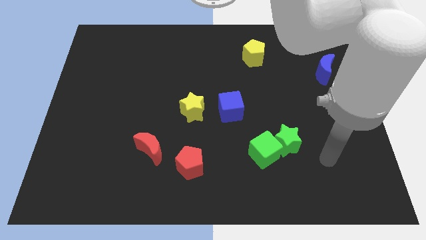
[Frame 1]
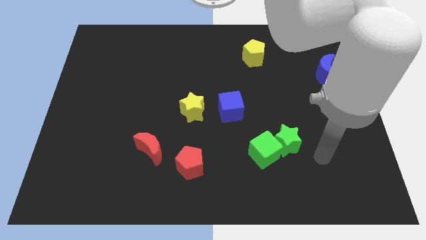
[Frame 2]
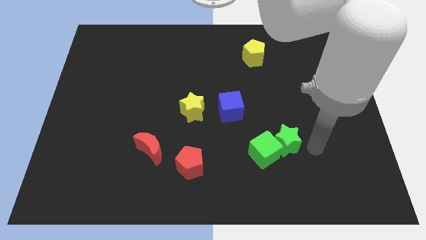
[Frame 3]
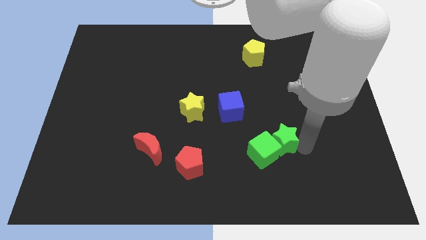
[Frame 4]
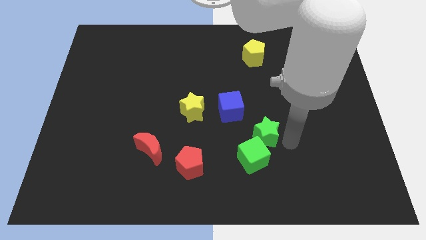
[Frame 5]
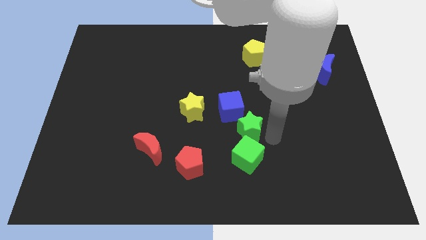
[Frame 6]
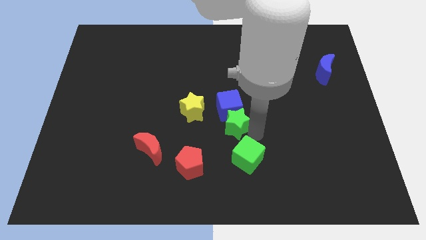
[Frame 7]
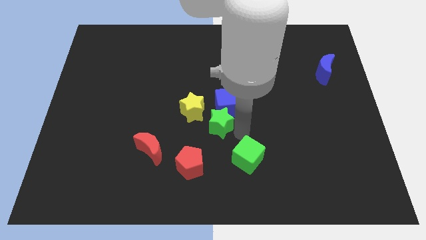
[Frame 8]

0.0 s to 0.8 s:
pull the green cube apart from the green star

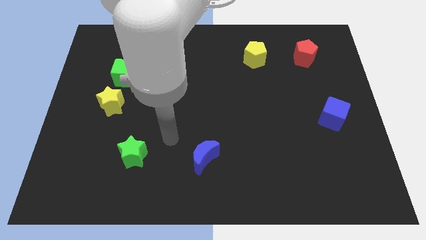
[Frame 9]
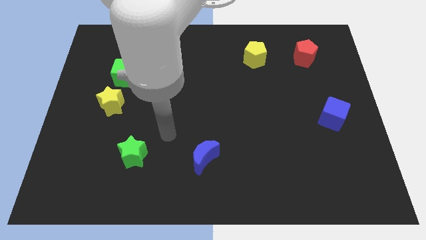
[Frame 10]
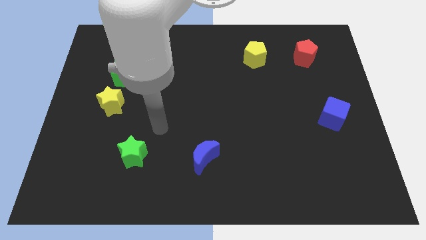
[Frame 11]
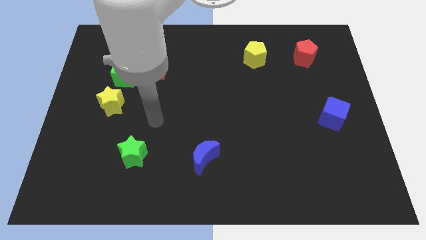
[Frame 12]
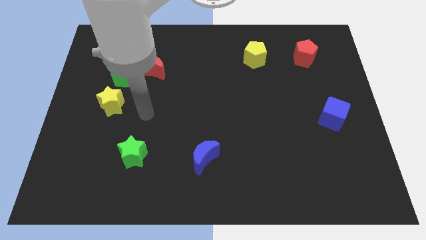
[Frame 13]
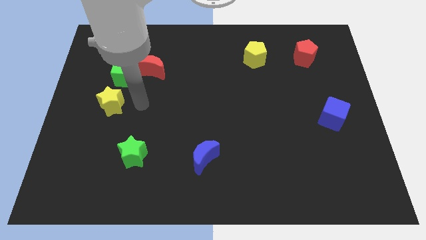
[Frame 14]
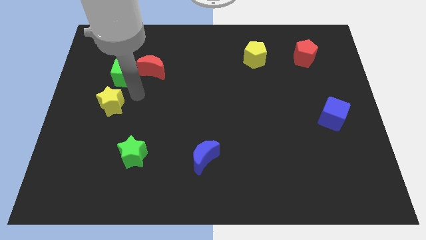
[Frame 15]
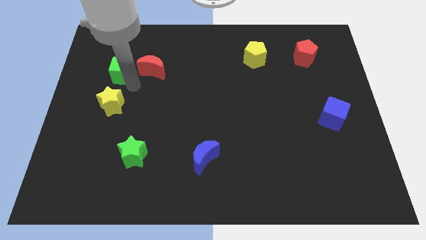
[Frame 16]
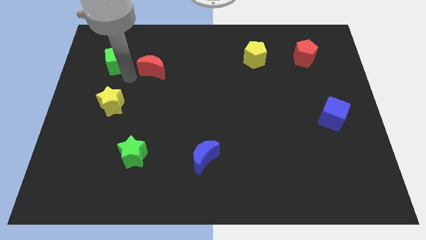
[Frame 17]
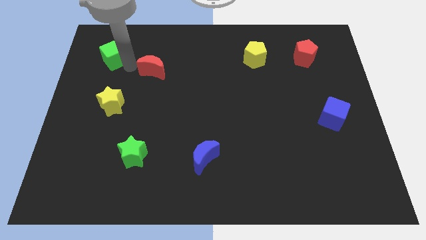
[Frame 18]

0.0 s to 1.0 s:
move the red moon away from the green cube

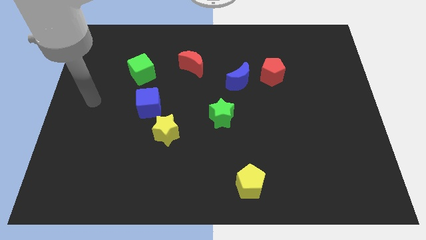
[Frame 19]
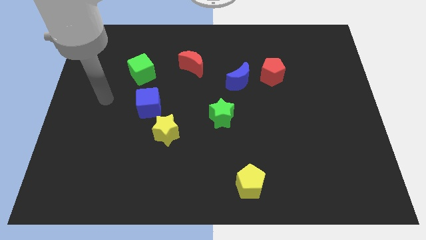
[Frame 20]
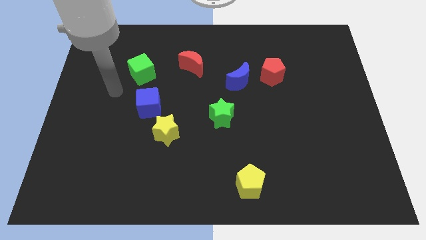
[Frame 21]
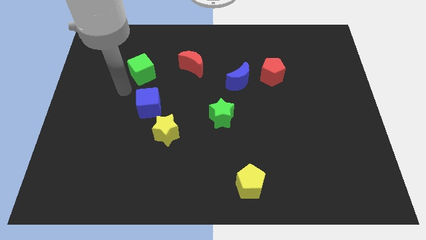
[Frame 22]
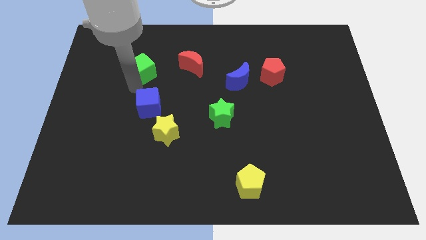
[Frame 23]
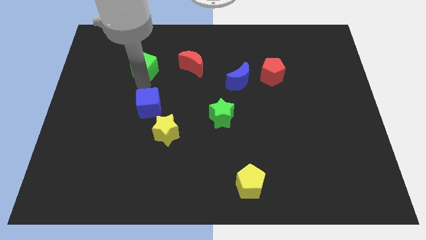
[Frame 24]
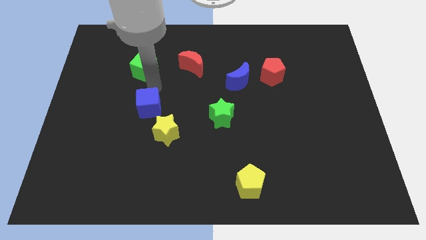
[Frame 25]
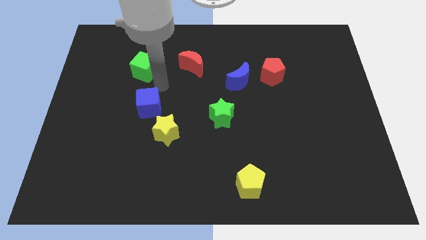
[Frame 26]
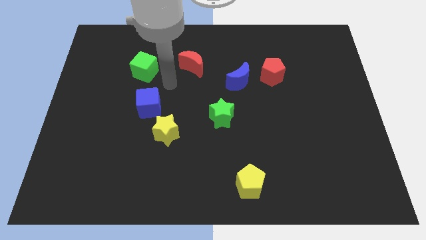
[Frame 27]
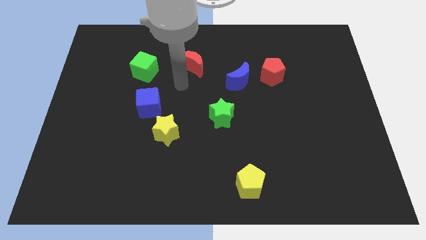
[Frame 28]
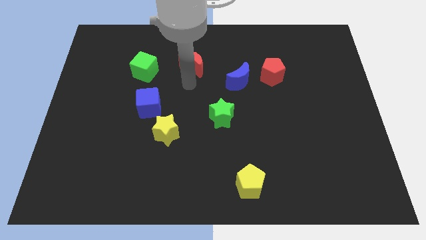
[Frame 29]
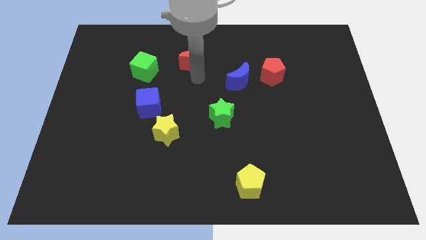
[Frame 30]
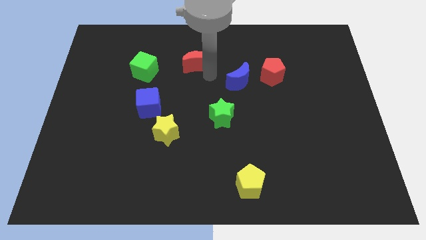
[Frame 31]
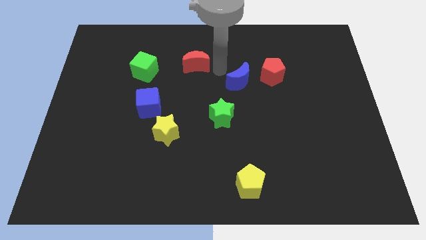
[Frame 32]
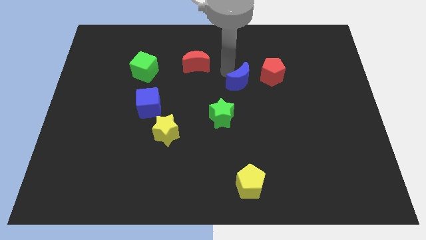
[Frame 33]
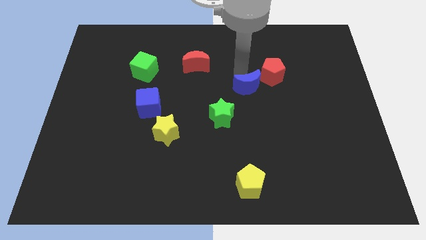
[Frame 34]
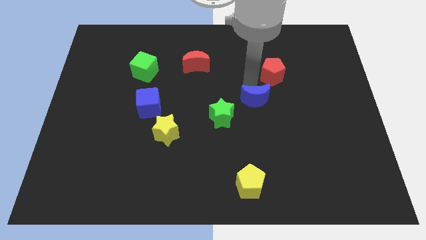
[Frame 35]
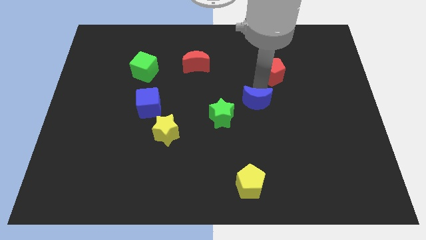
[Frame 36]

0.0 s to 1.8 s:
move the red pentagon away from the blue moon

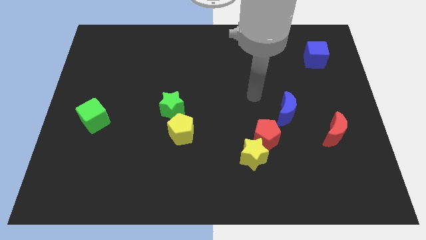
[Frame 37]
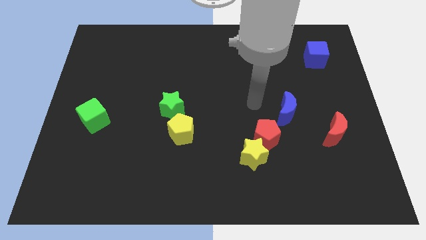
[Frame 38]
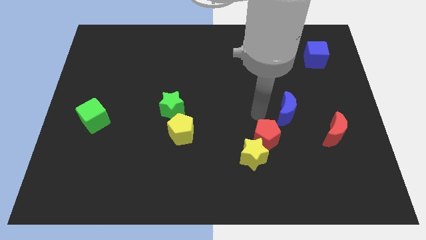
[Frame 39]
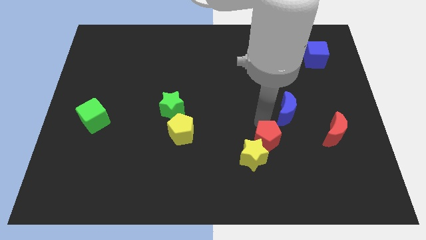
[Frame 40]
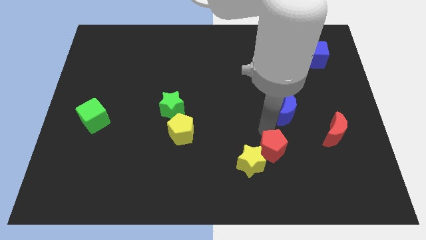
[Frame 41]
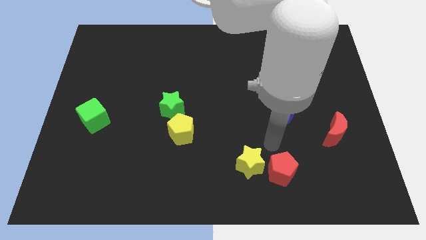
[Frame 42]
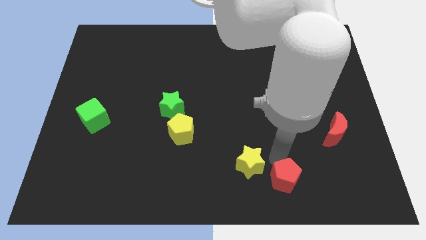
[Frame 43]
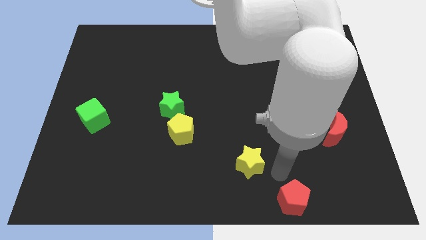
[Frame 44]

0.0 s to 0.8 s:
separate the yellow star from the red pentagon

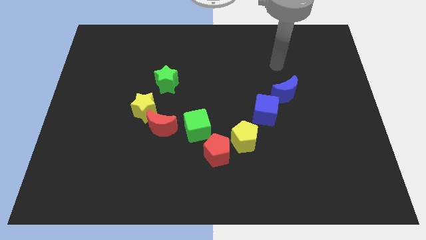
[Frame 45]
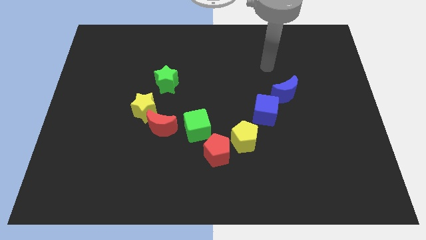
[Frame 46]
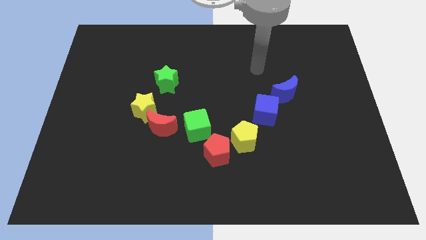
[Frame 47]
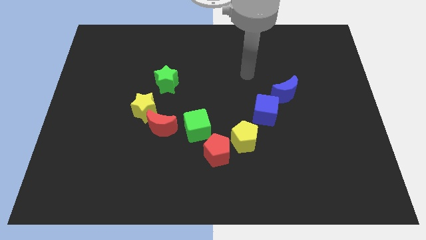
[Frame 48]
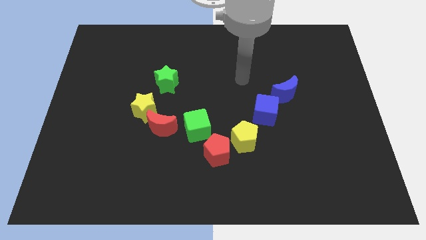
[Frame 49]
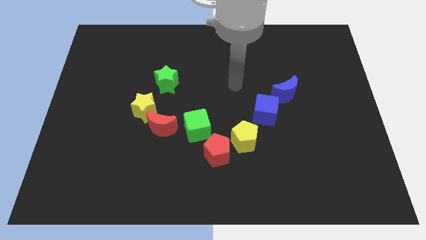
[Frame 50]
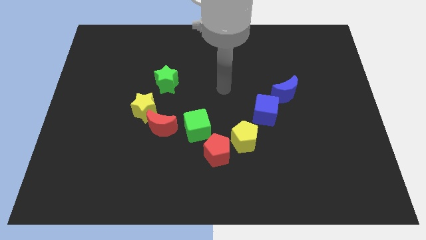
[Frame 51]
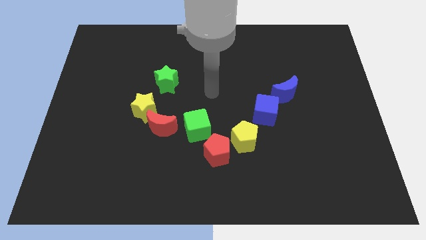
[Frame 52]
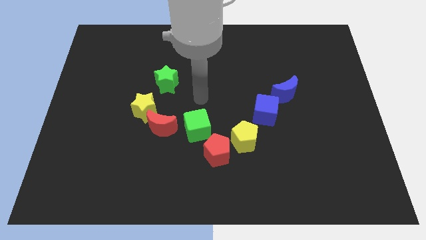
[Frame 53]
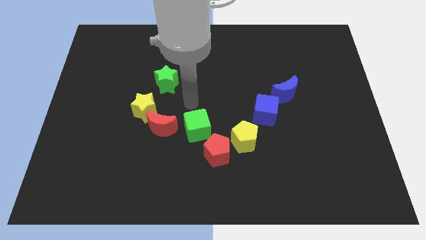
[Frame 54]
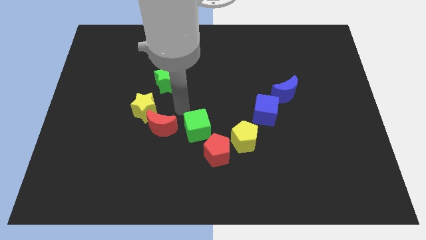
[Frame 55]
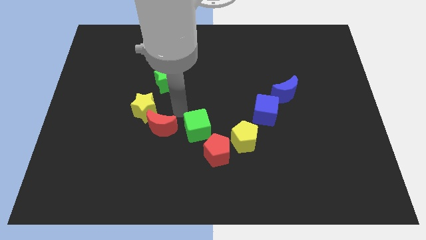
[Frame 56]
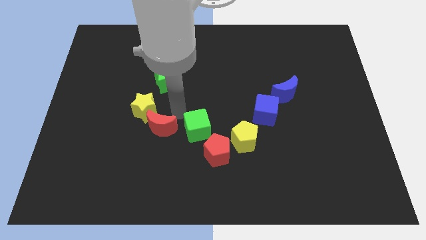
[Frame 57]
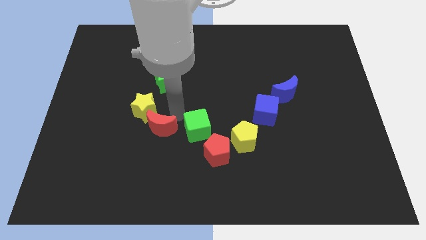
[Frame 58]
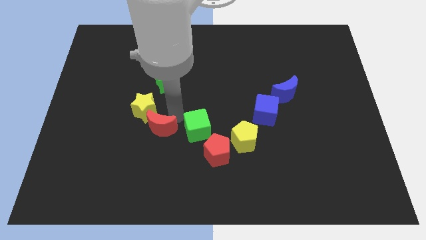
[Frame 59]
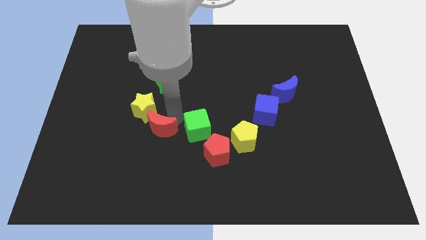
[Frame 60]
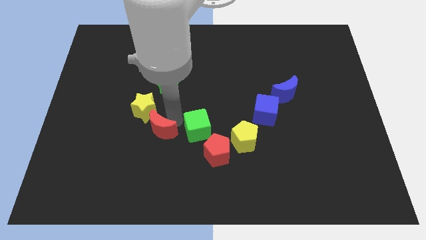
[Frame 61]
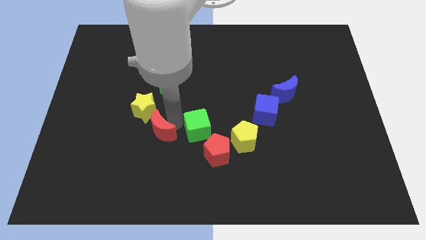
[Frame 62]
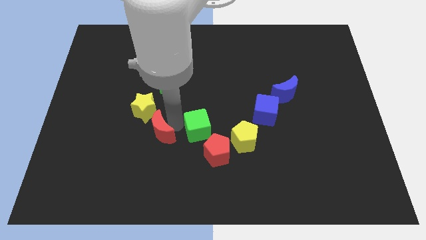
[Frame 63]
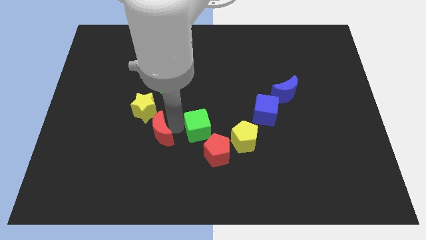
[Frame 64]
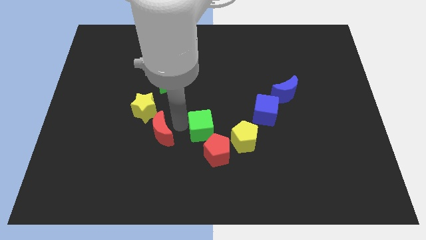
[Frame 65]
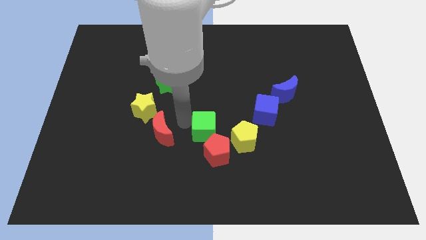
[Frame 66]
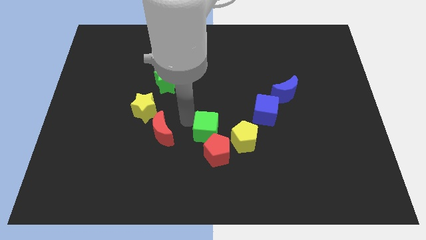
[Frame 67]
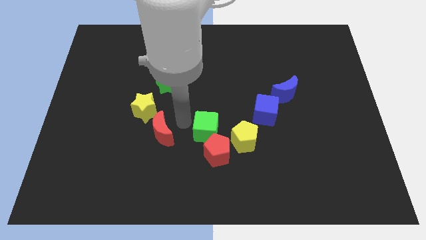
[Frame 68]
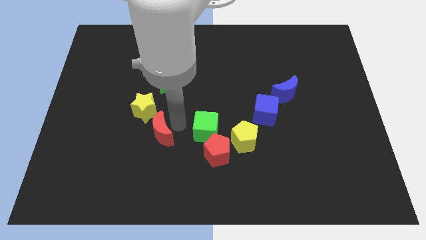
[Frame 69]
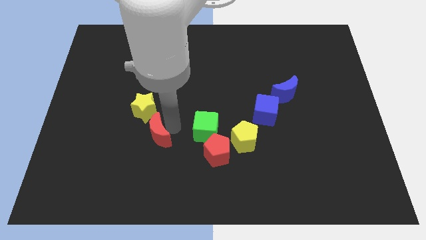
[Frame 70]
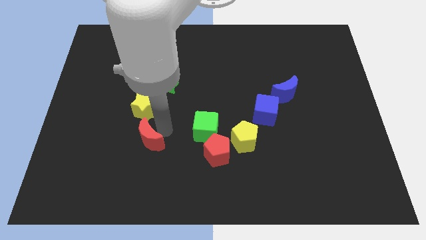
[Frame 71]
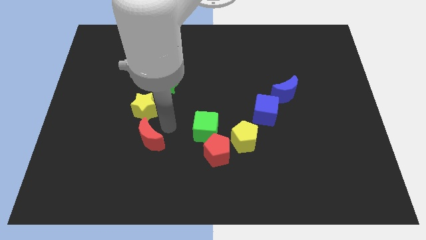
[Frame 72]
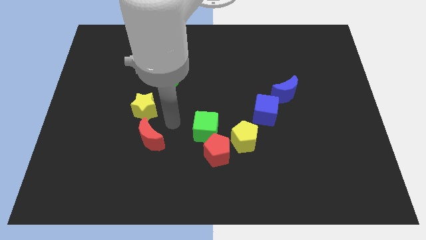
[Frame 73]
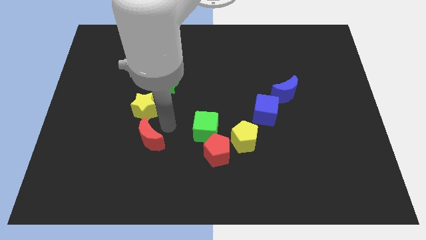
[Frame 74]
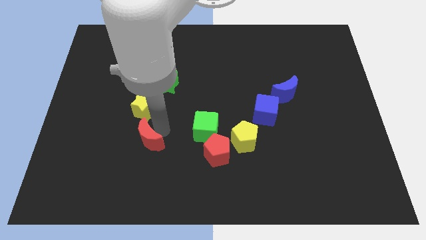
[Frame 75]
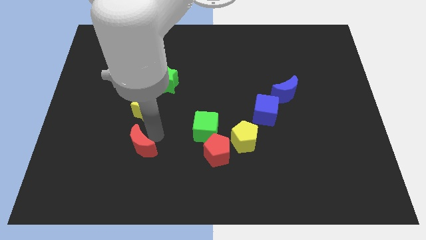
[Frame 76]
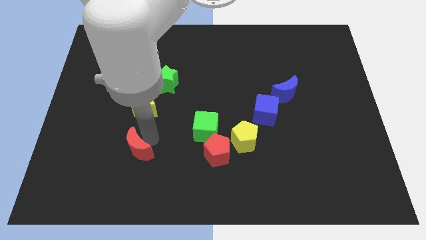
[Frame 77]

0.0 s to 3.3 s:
pull the red moon apart from the yellow star and green cube

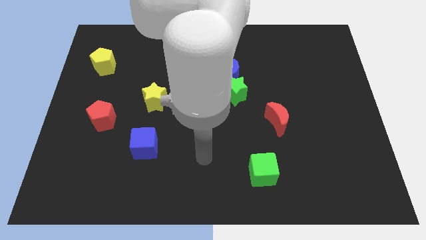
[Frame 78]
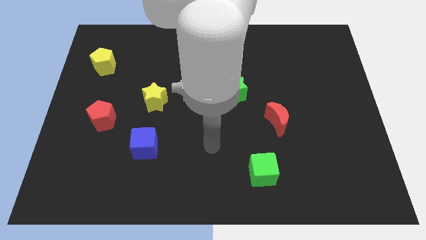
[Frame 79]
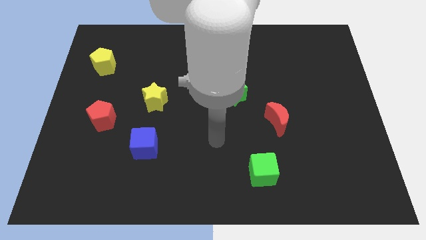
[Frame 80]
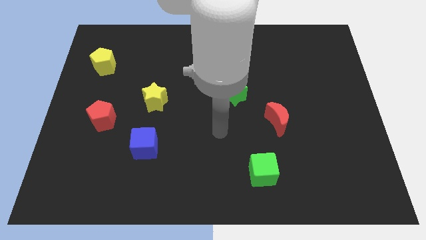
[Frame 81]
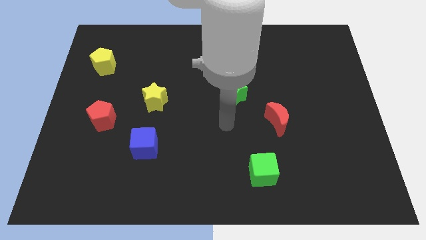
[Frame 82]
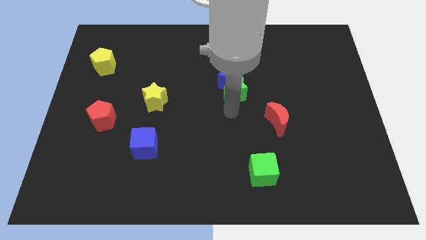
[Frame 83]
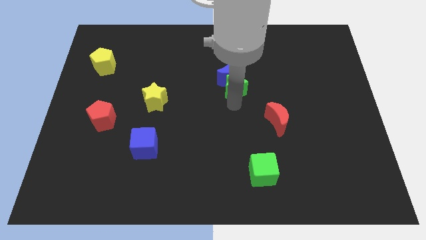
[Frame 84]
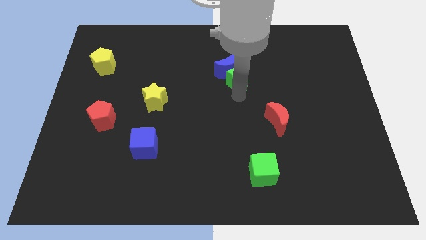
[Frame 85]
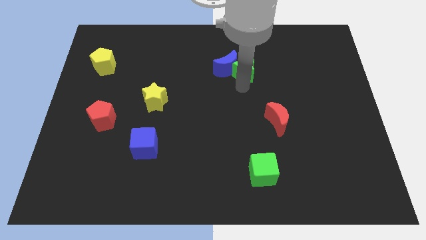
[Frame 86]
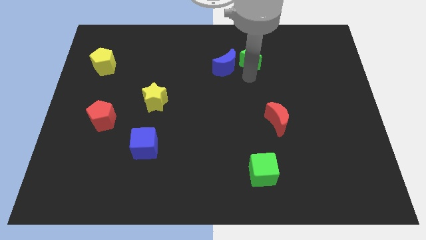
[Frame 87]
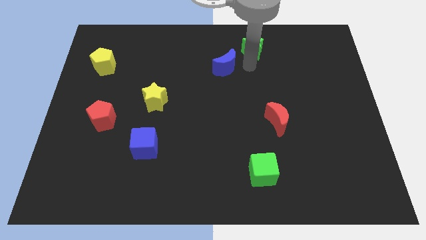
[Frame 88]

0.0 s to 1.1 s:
pull the blue moon apart from the green star

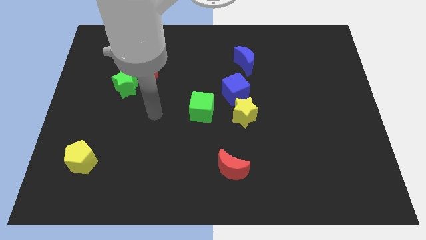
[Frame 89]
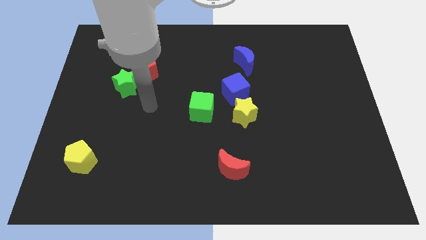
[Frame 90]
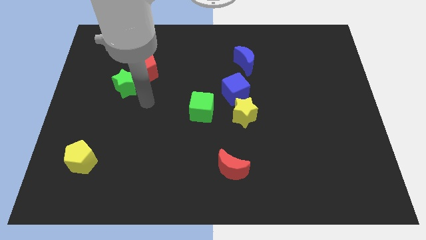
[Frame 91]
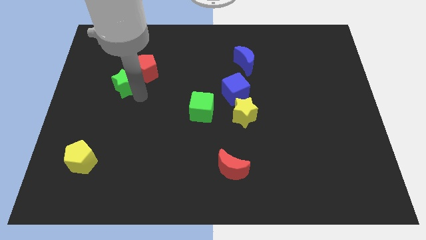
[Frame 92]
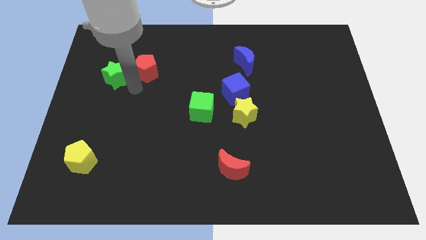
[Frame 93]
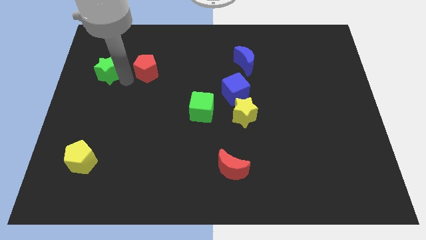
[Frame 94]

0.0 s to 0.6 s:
move the red pentagon away from the green star
